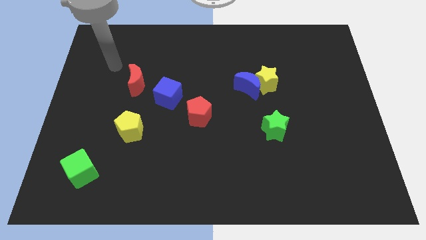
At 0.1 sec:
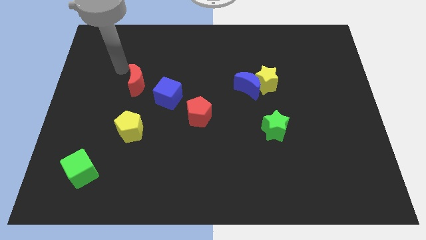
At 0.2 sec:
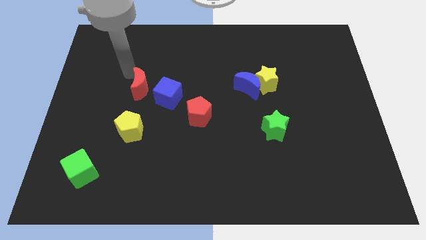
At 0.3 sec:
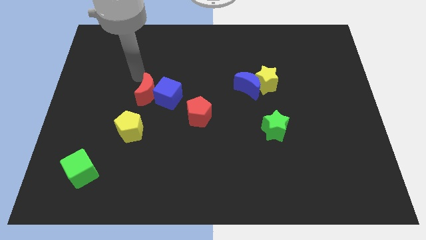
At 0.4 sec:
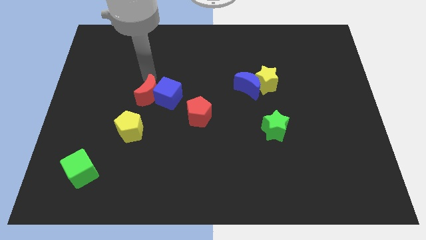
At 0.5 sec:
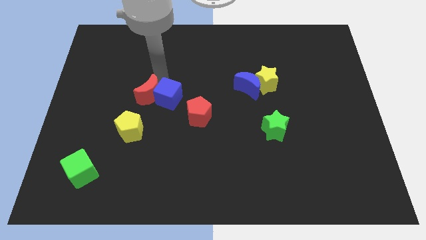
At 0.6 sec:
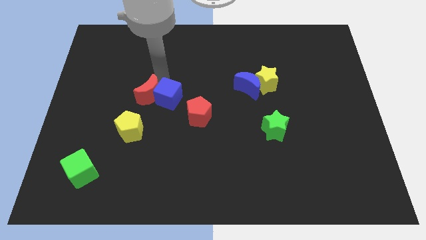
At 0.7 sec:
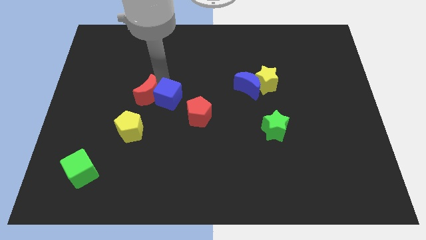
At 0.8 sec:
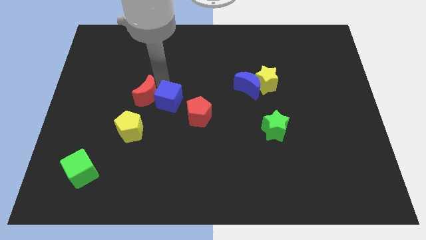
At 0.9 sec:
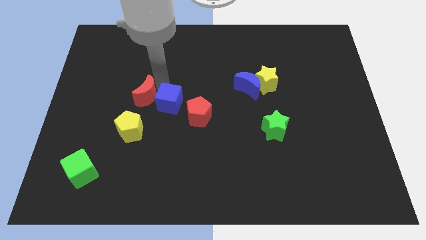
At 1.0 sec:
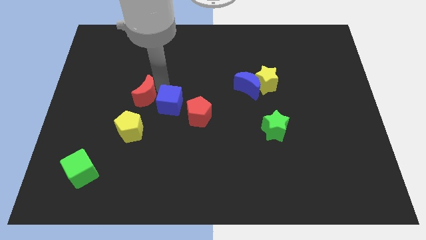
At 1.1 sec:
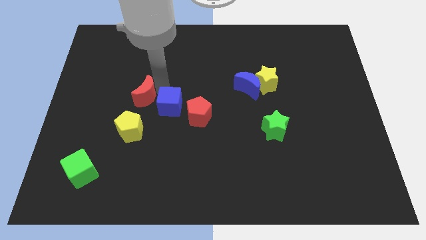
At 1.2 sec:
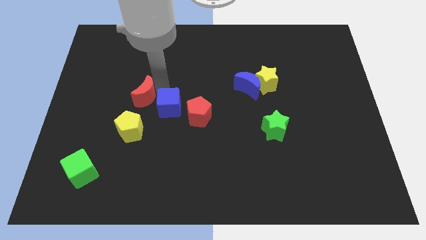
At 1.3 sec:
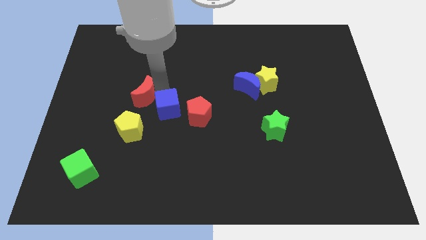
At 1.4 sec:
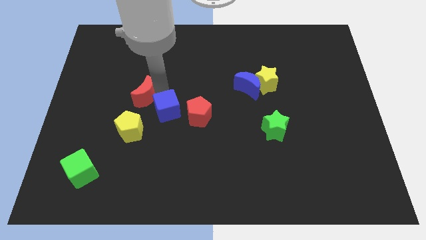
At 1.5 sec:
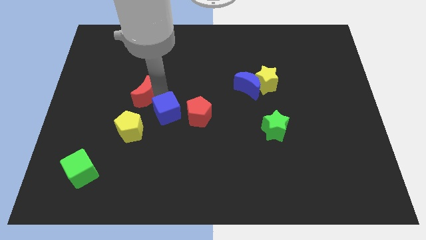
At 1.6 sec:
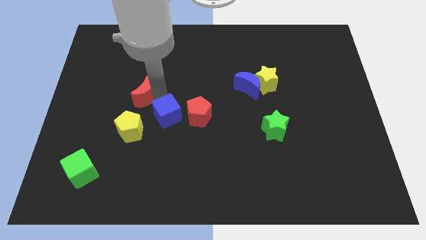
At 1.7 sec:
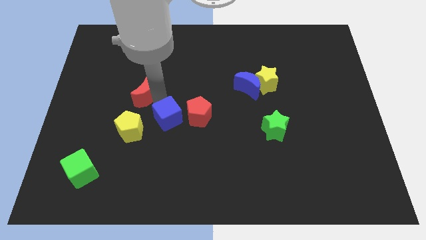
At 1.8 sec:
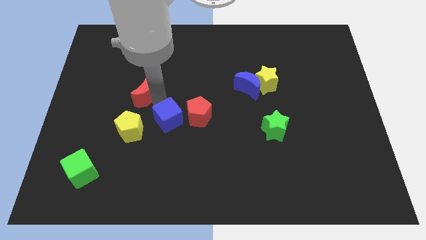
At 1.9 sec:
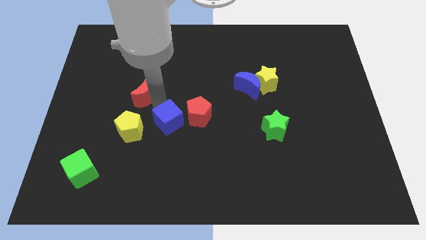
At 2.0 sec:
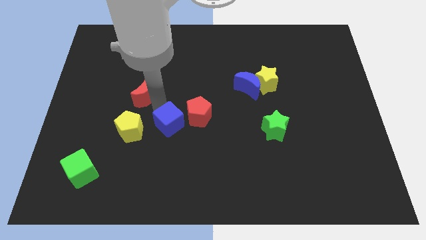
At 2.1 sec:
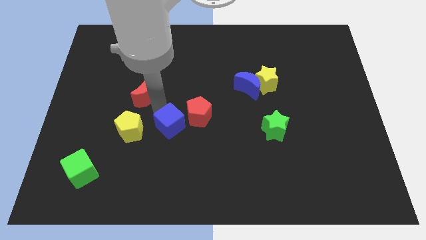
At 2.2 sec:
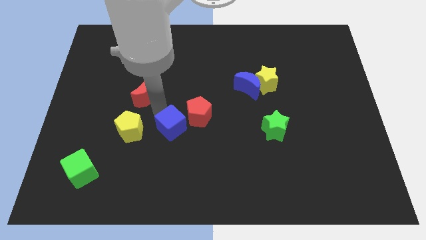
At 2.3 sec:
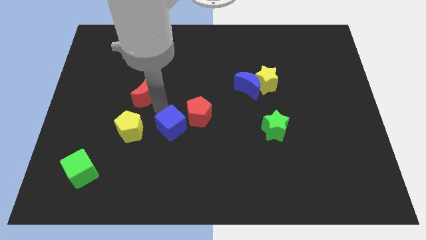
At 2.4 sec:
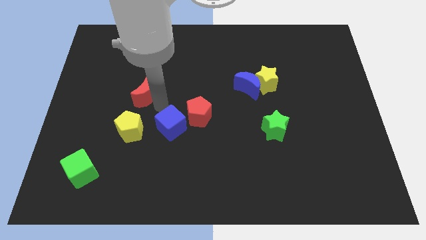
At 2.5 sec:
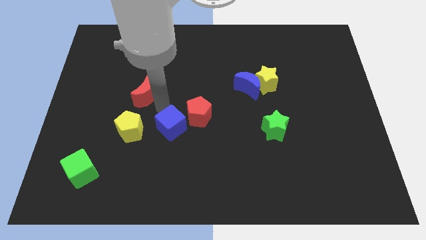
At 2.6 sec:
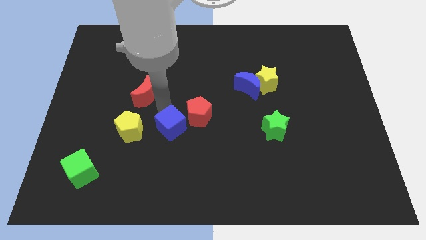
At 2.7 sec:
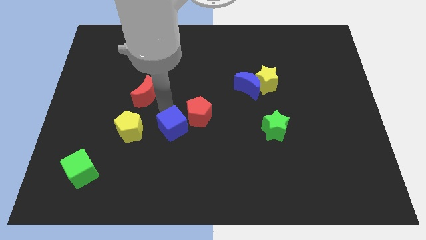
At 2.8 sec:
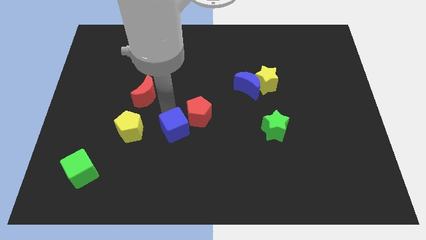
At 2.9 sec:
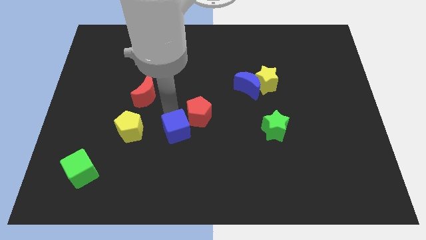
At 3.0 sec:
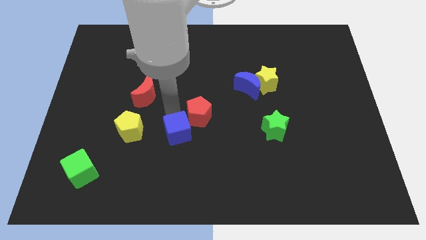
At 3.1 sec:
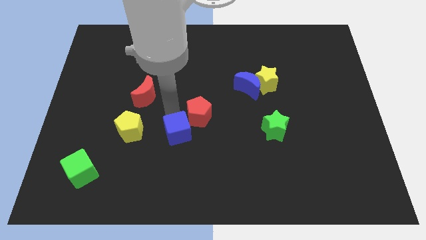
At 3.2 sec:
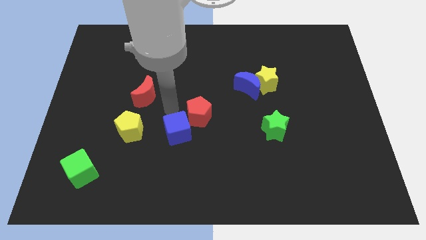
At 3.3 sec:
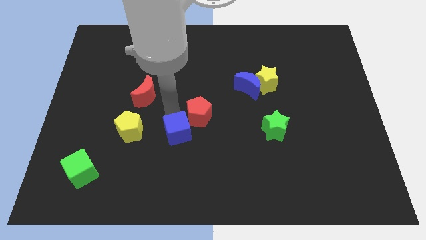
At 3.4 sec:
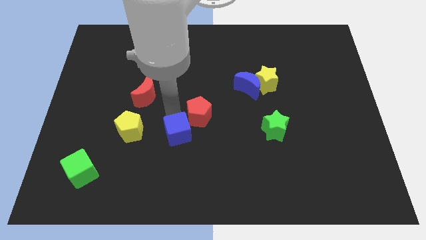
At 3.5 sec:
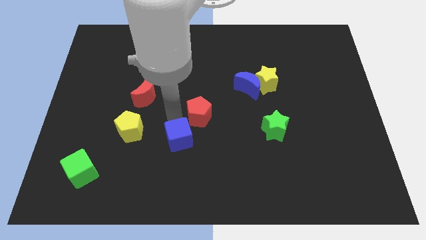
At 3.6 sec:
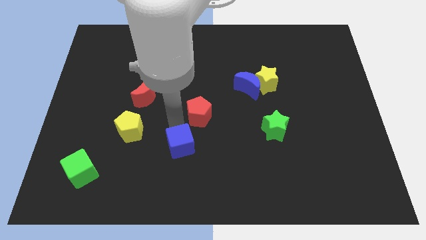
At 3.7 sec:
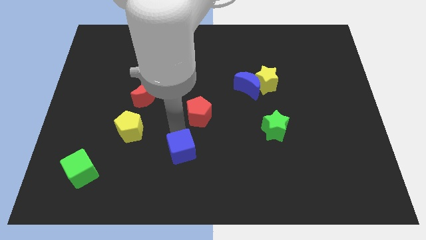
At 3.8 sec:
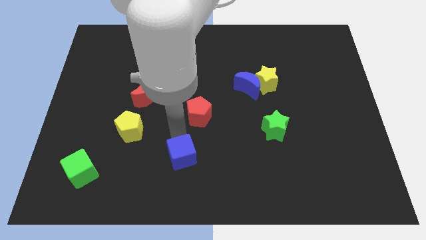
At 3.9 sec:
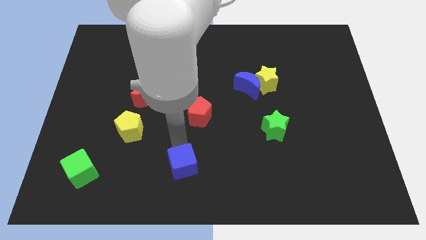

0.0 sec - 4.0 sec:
push the blue cube to the bottom

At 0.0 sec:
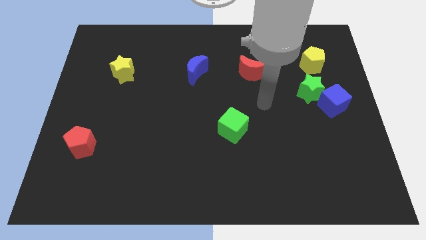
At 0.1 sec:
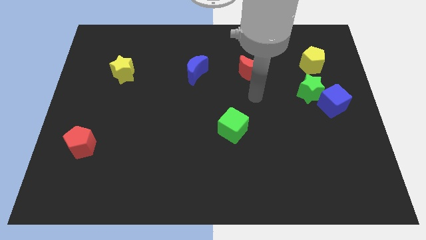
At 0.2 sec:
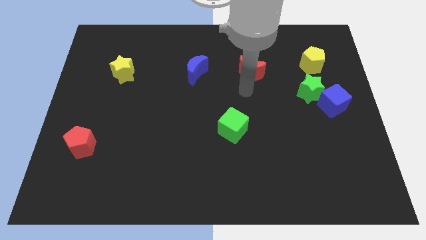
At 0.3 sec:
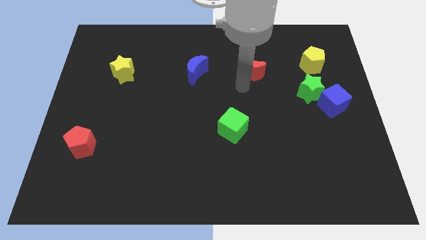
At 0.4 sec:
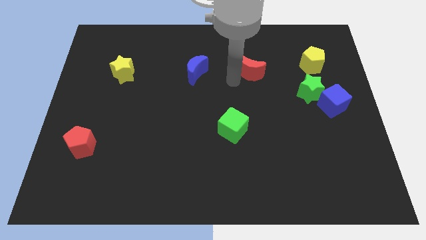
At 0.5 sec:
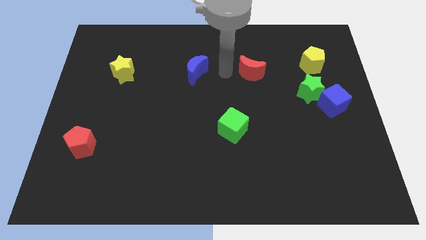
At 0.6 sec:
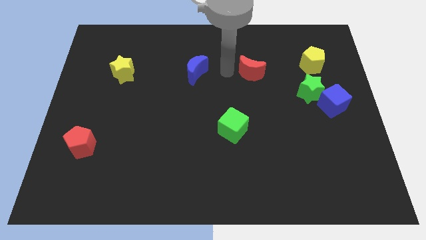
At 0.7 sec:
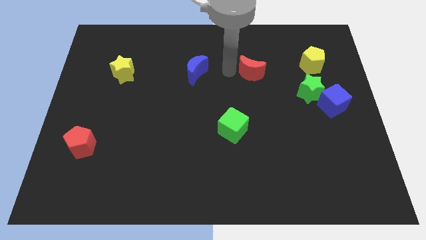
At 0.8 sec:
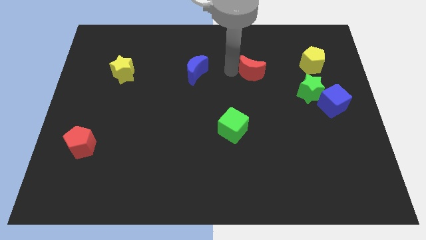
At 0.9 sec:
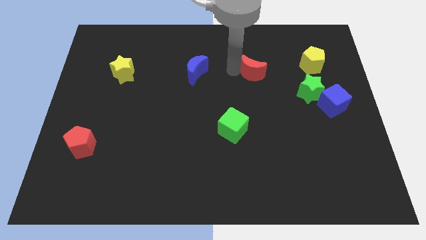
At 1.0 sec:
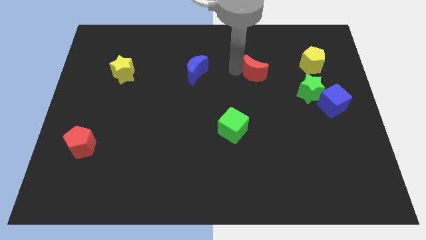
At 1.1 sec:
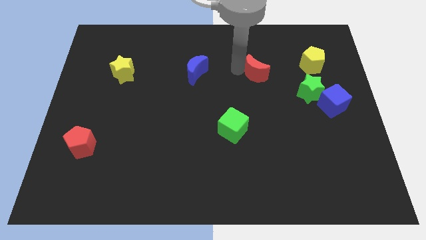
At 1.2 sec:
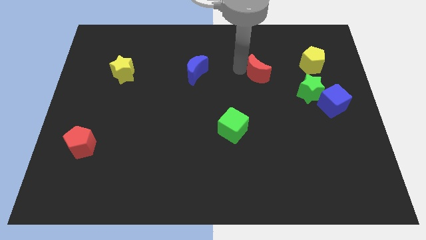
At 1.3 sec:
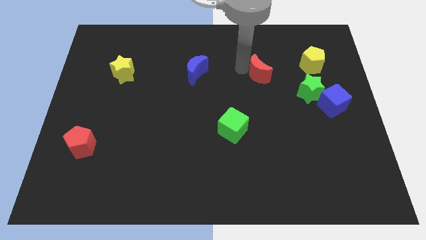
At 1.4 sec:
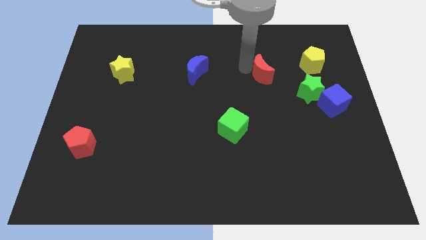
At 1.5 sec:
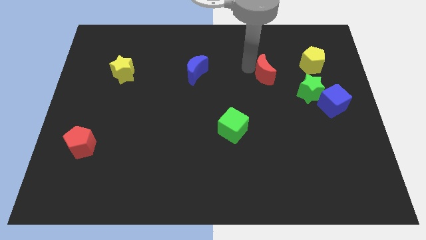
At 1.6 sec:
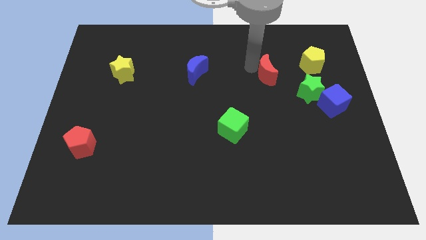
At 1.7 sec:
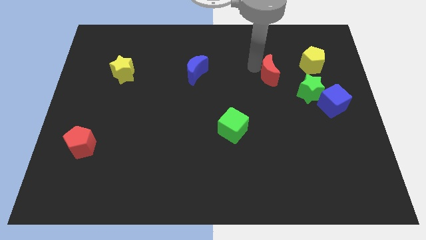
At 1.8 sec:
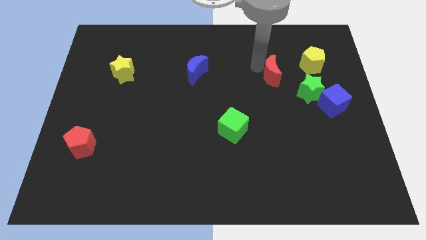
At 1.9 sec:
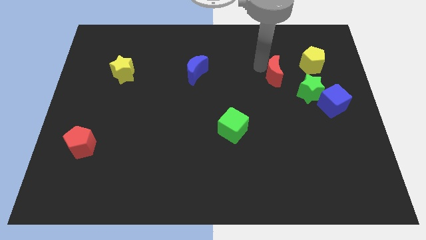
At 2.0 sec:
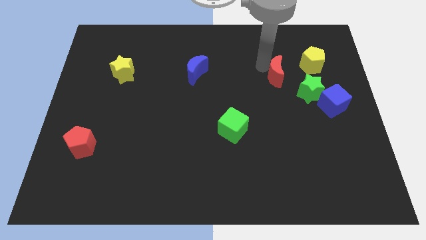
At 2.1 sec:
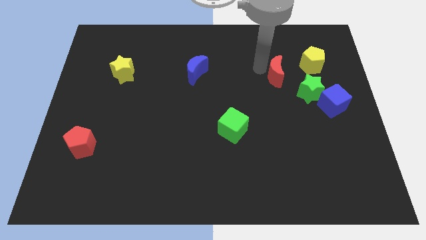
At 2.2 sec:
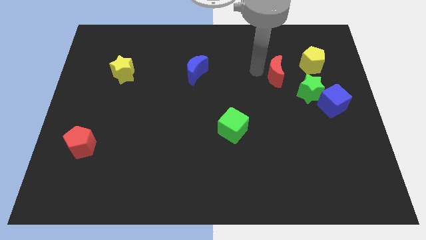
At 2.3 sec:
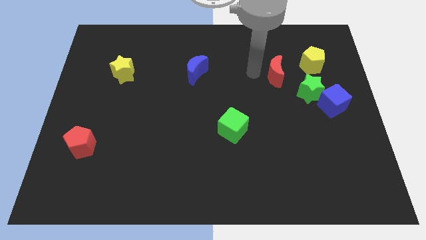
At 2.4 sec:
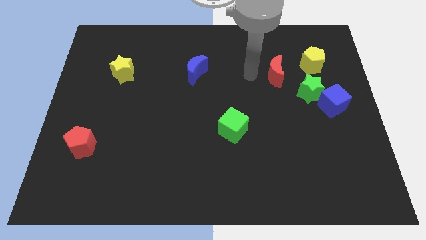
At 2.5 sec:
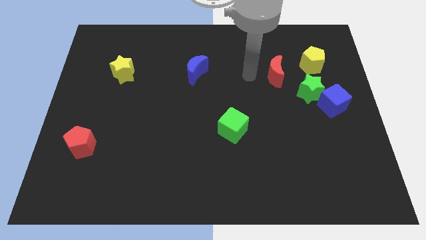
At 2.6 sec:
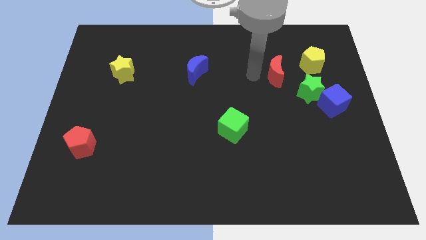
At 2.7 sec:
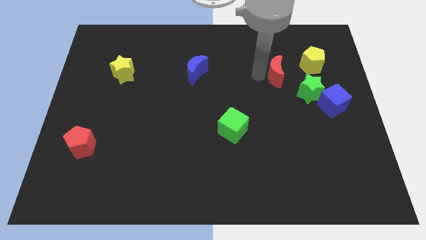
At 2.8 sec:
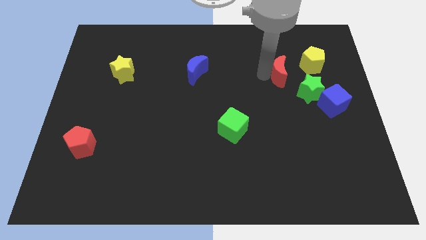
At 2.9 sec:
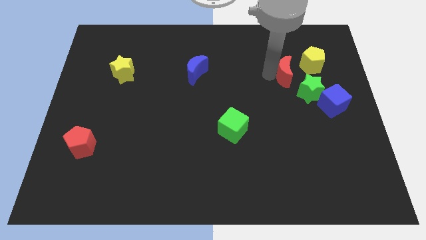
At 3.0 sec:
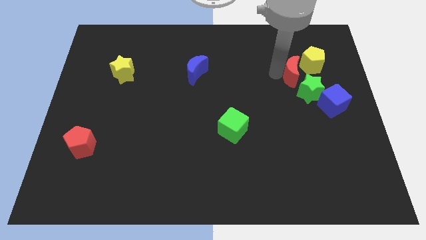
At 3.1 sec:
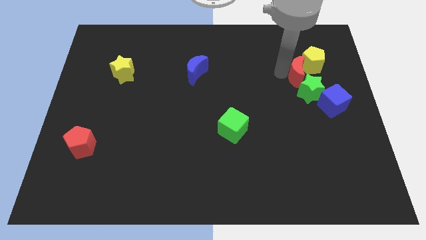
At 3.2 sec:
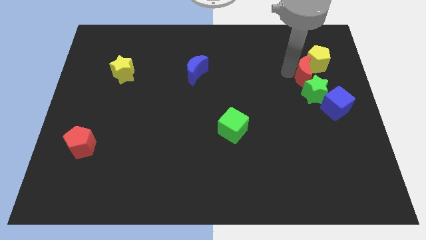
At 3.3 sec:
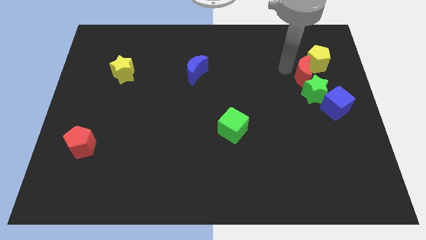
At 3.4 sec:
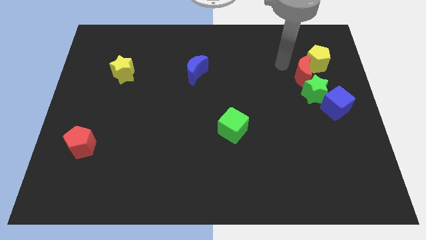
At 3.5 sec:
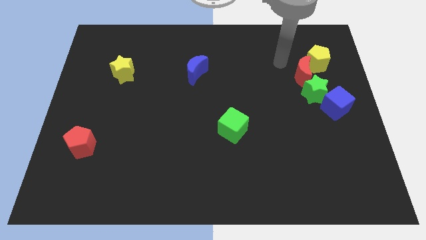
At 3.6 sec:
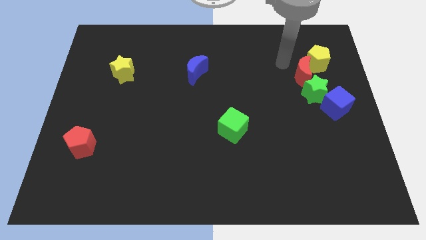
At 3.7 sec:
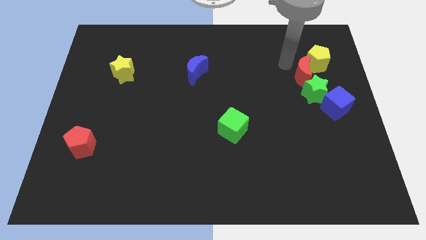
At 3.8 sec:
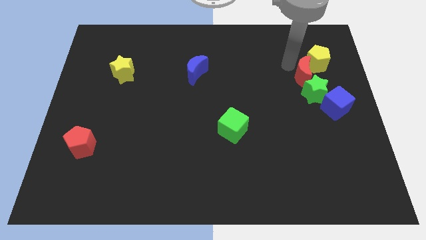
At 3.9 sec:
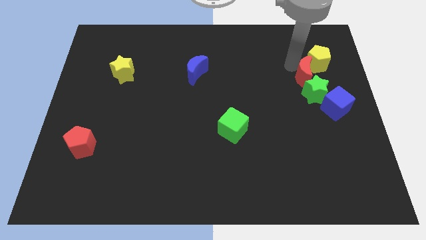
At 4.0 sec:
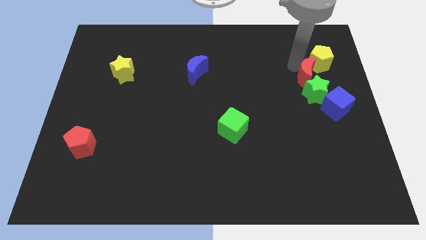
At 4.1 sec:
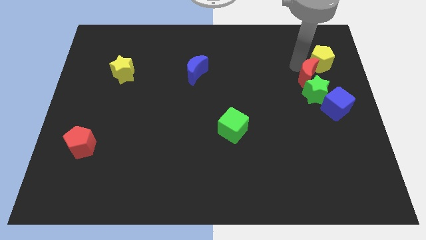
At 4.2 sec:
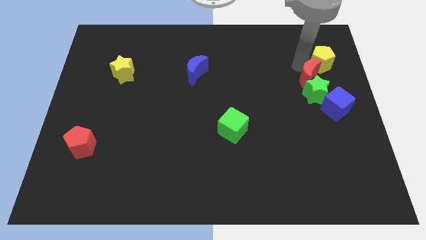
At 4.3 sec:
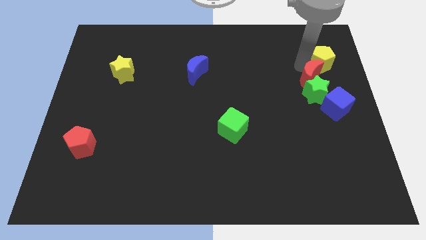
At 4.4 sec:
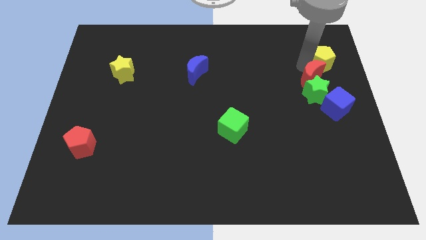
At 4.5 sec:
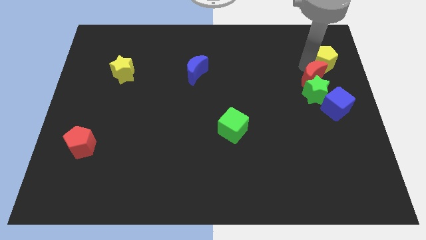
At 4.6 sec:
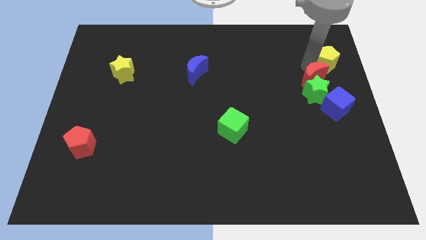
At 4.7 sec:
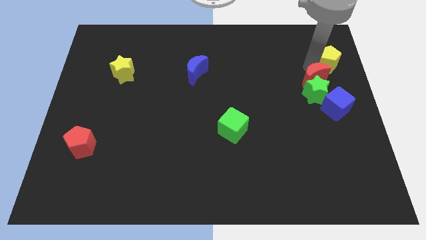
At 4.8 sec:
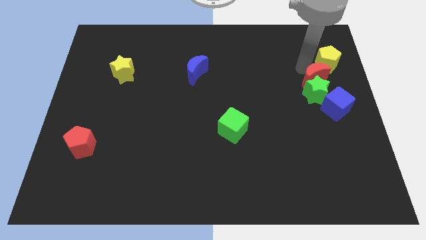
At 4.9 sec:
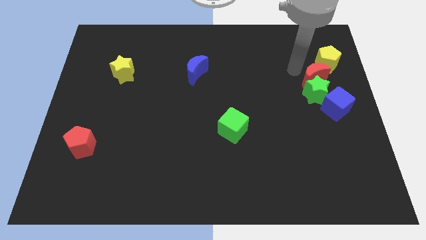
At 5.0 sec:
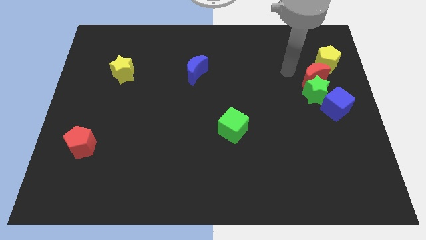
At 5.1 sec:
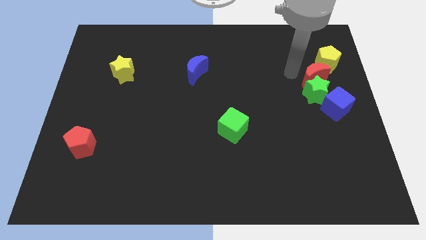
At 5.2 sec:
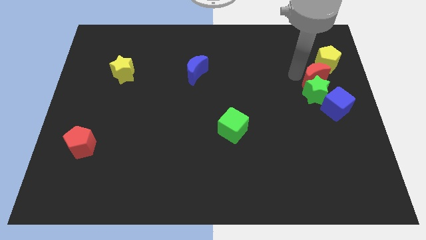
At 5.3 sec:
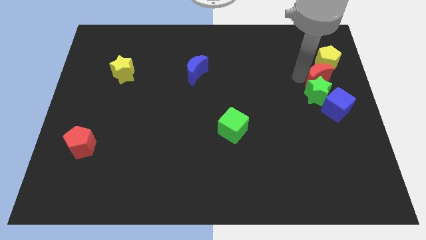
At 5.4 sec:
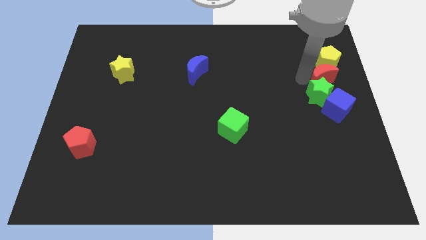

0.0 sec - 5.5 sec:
move the red moon to the center right
